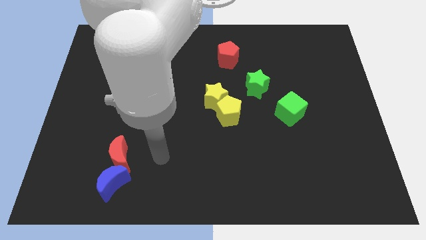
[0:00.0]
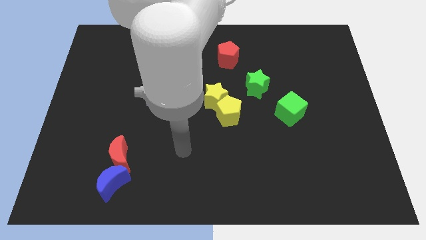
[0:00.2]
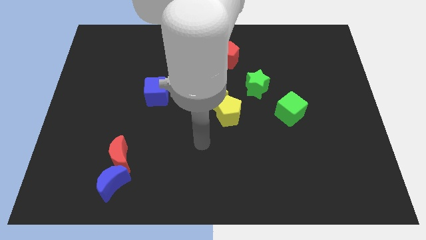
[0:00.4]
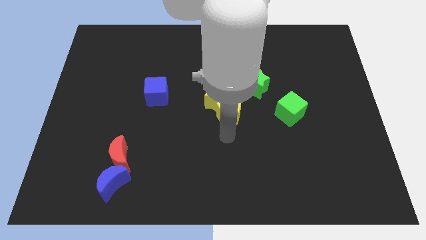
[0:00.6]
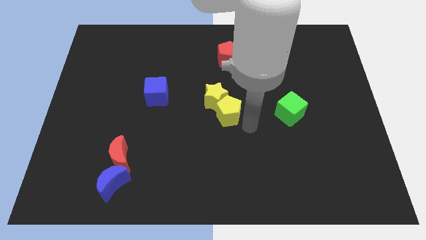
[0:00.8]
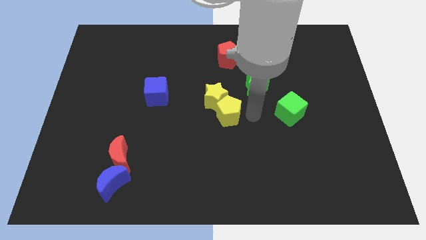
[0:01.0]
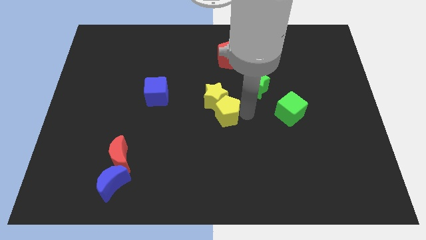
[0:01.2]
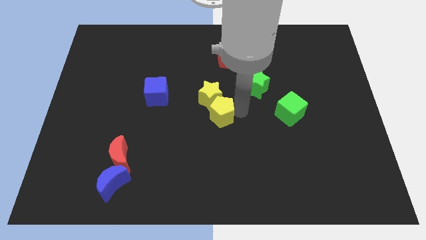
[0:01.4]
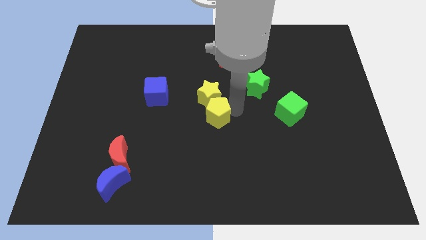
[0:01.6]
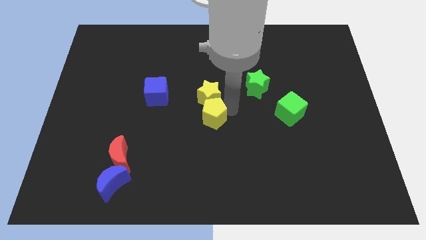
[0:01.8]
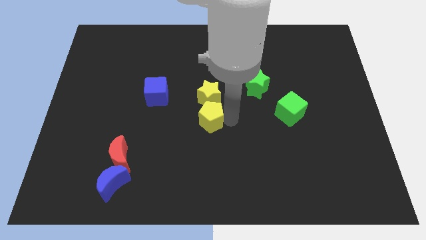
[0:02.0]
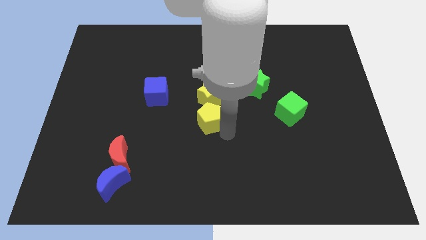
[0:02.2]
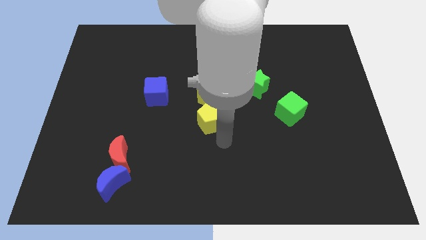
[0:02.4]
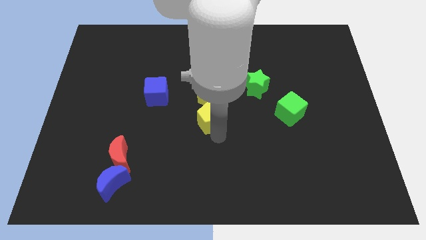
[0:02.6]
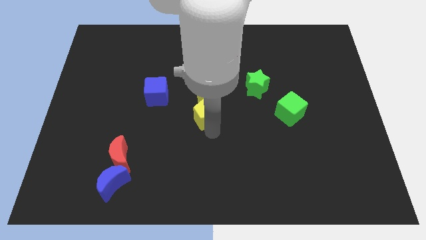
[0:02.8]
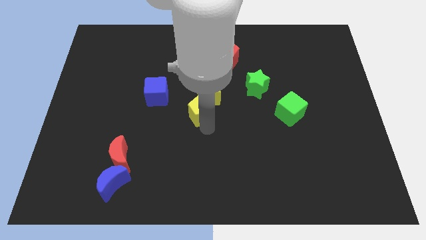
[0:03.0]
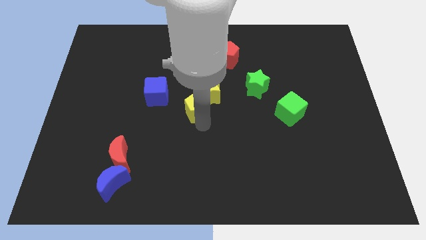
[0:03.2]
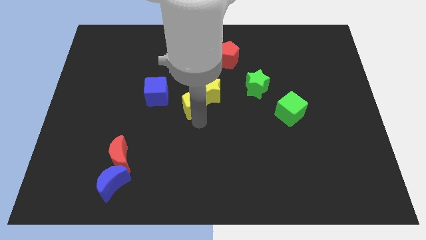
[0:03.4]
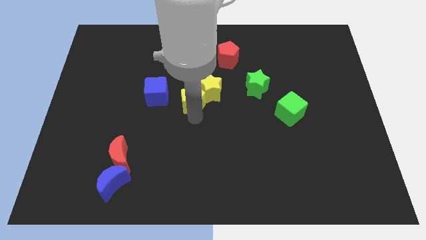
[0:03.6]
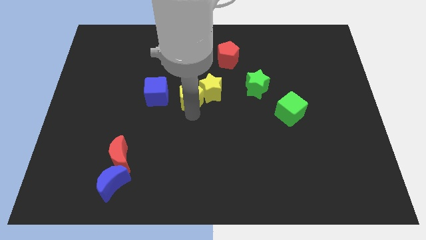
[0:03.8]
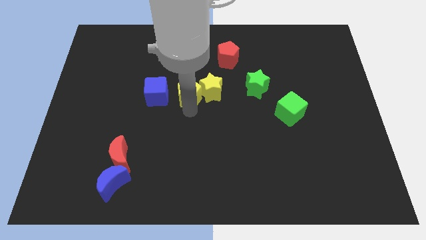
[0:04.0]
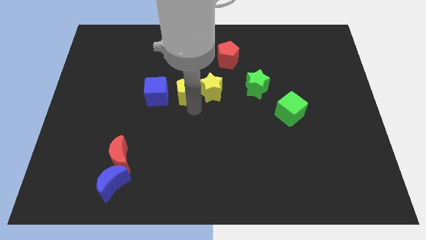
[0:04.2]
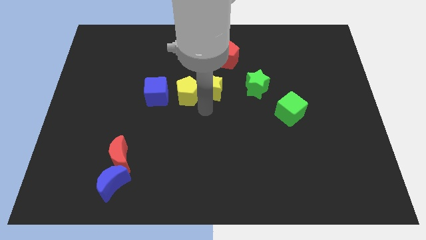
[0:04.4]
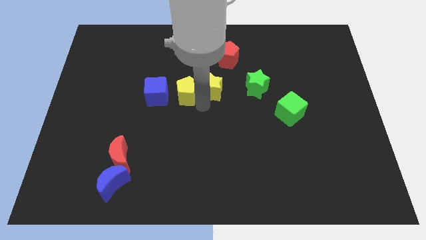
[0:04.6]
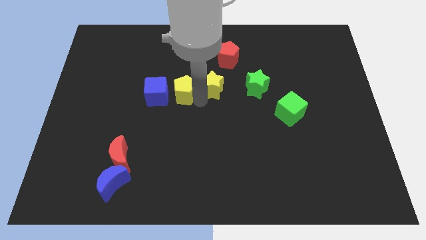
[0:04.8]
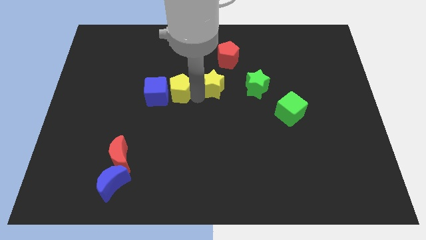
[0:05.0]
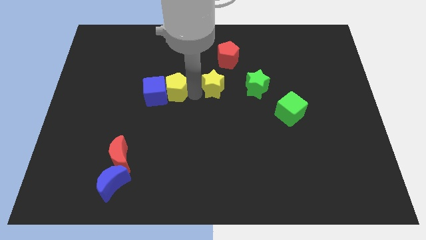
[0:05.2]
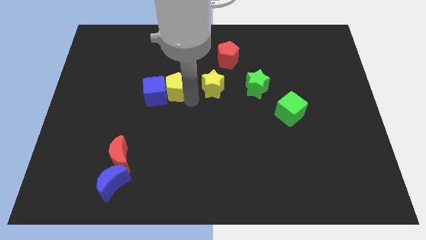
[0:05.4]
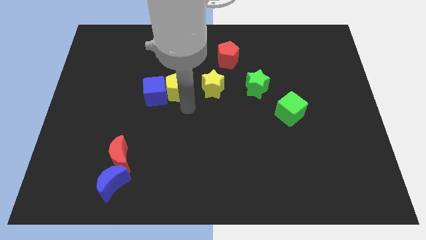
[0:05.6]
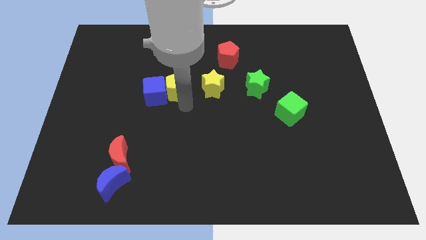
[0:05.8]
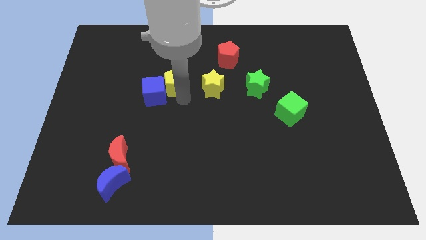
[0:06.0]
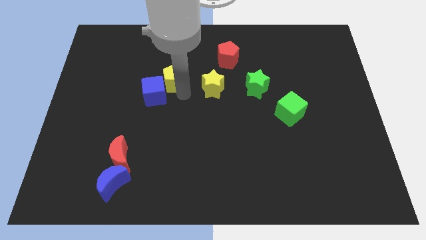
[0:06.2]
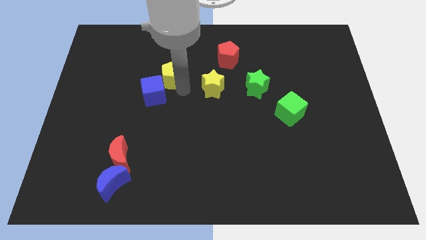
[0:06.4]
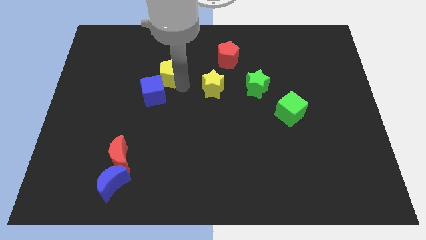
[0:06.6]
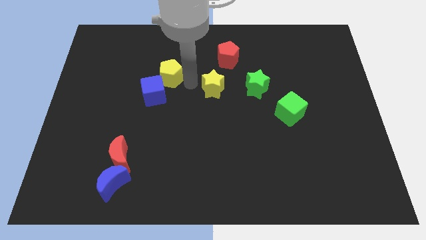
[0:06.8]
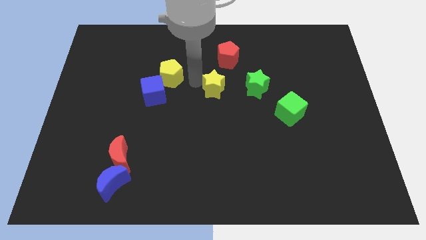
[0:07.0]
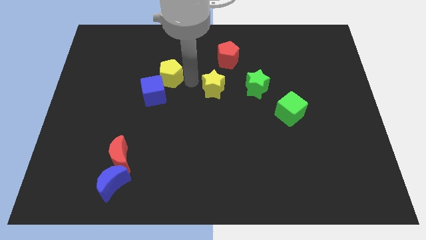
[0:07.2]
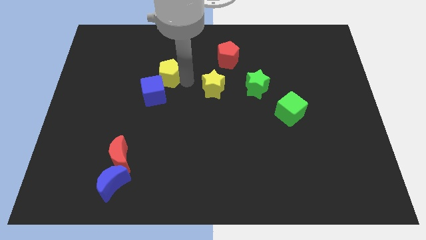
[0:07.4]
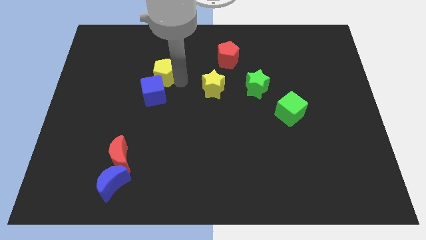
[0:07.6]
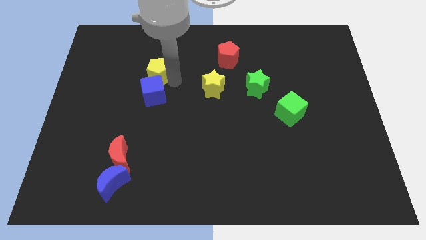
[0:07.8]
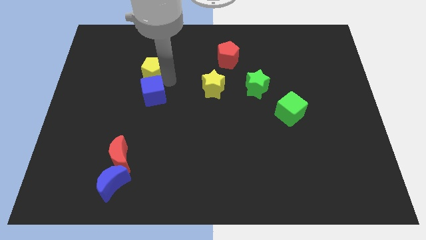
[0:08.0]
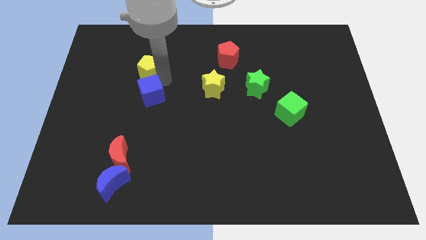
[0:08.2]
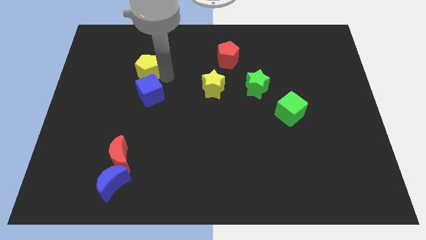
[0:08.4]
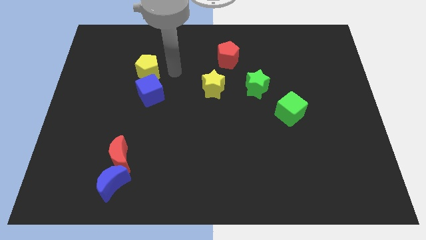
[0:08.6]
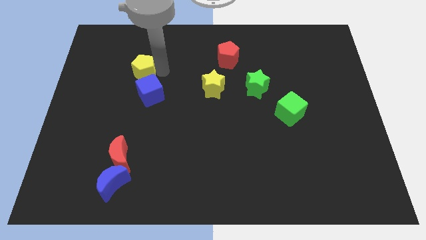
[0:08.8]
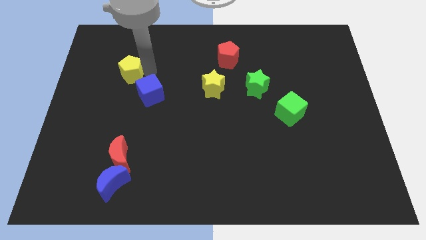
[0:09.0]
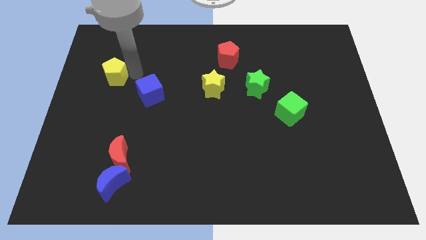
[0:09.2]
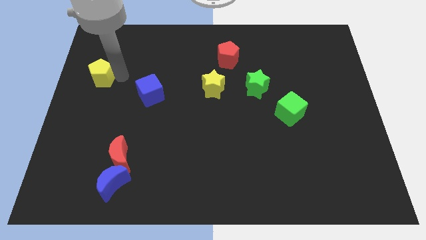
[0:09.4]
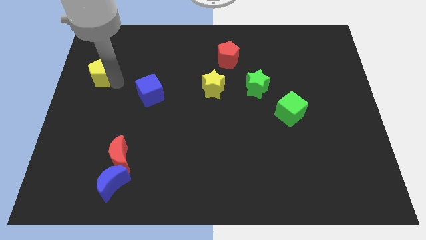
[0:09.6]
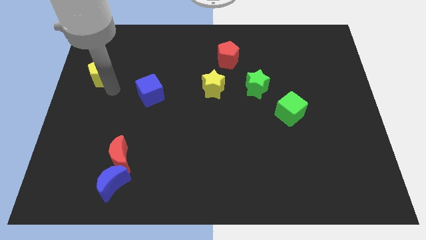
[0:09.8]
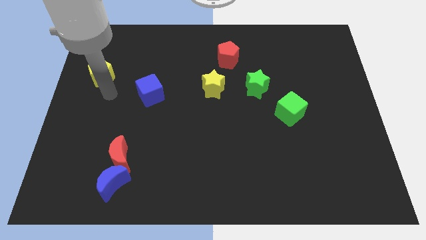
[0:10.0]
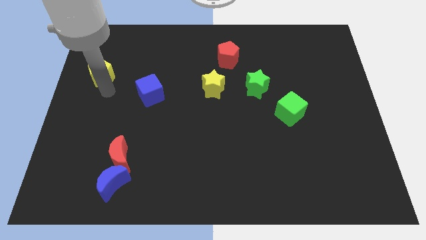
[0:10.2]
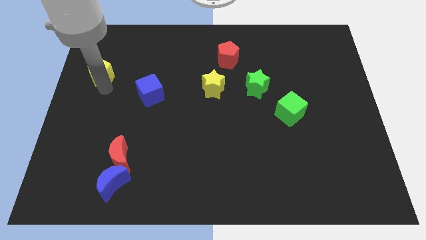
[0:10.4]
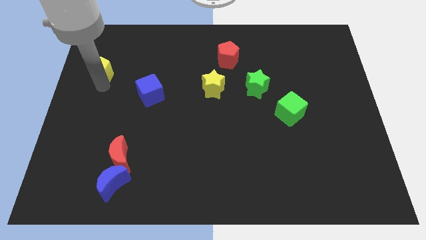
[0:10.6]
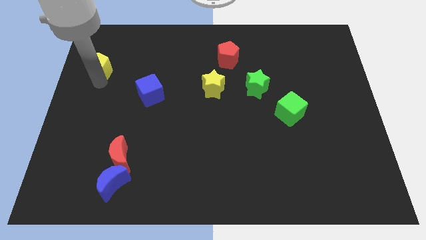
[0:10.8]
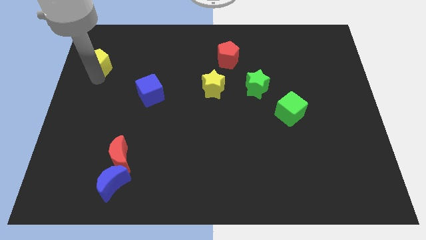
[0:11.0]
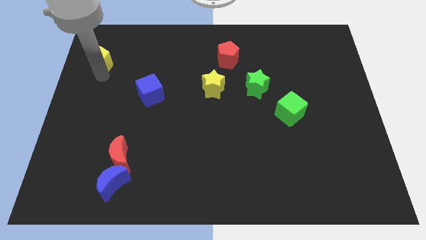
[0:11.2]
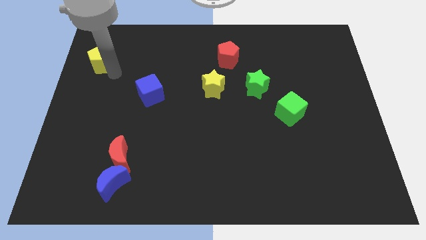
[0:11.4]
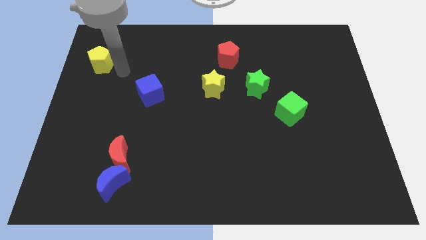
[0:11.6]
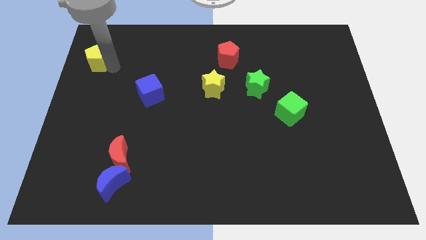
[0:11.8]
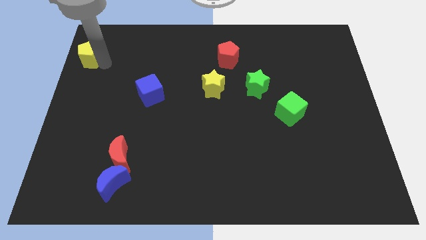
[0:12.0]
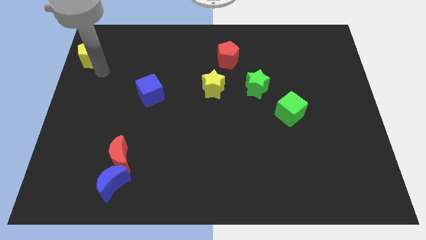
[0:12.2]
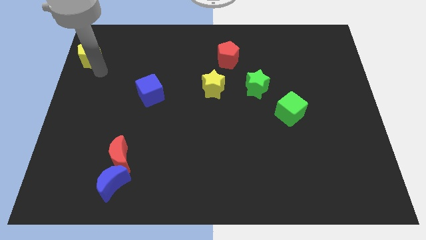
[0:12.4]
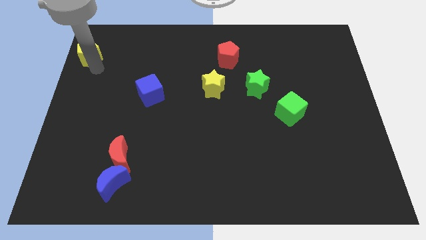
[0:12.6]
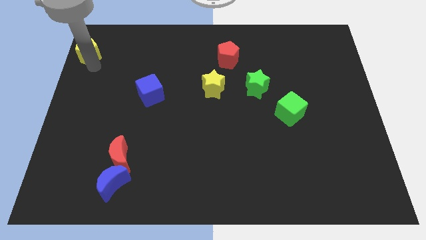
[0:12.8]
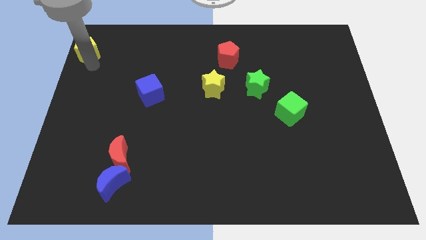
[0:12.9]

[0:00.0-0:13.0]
put the yellow pentagon to the top left of the board

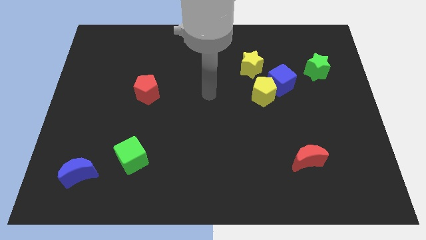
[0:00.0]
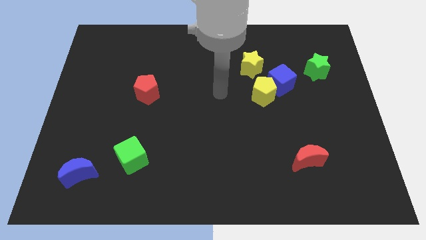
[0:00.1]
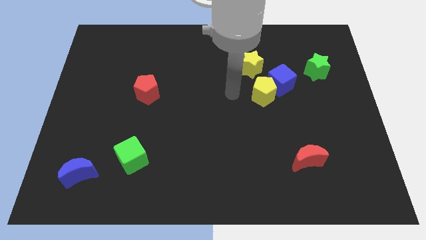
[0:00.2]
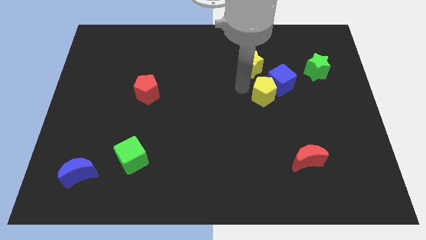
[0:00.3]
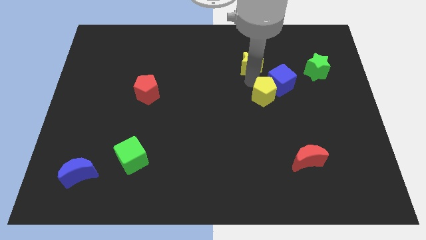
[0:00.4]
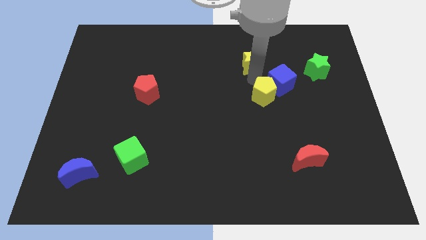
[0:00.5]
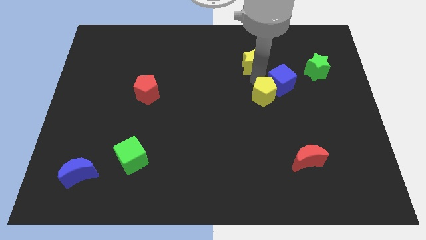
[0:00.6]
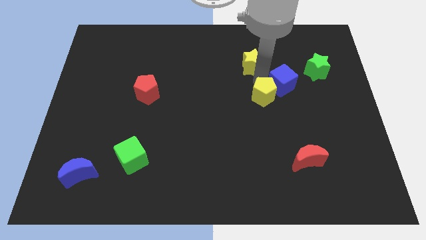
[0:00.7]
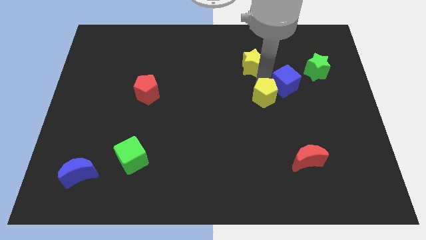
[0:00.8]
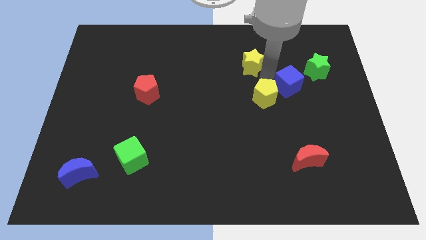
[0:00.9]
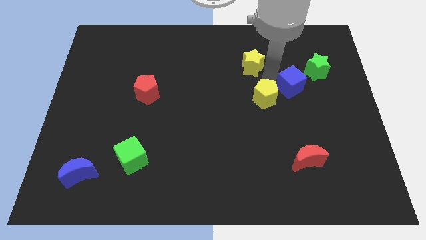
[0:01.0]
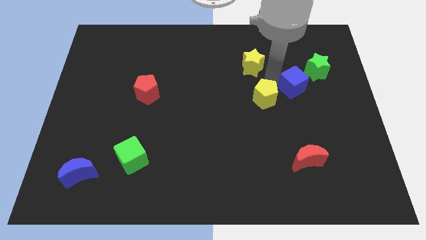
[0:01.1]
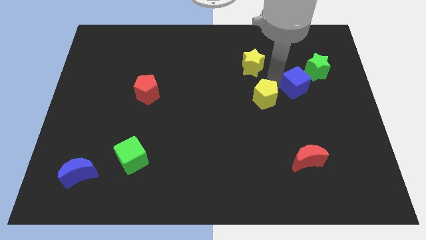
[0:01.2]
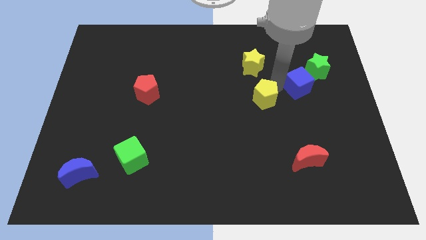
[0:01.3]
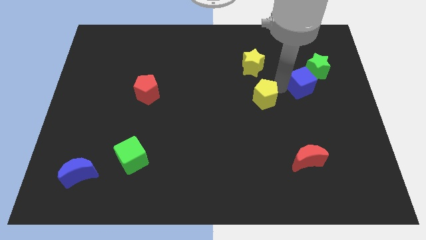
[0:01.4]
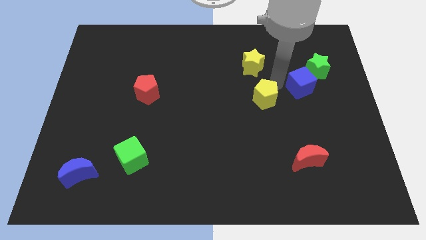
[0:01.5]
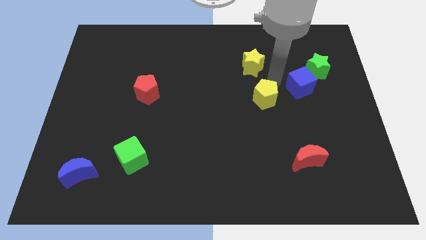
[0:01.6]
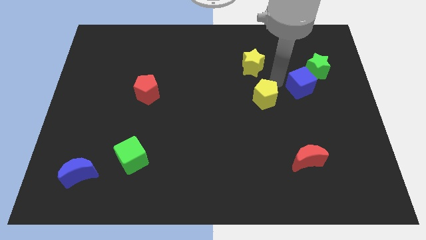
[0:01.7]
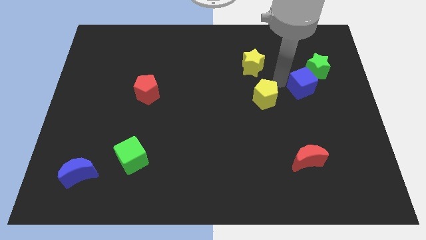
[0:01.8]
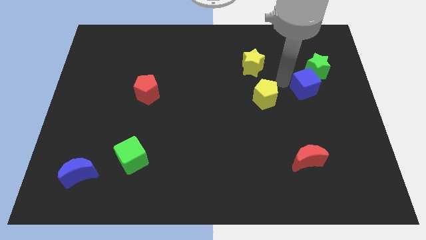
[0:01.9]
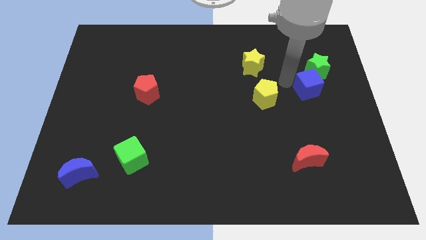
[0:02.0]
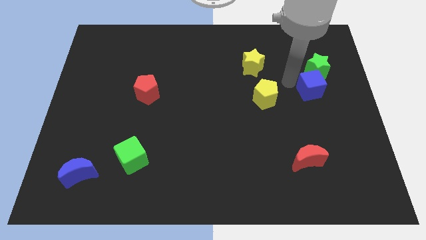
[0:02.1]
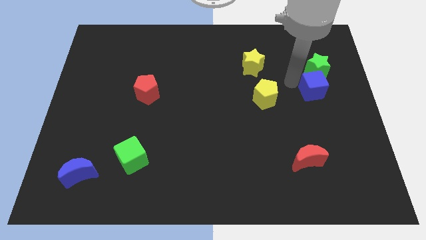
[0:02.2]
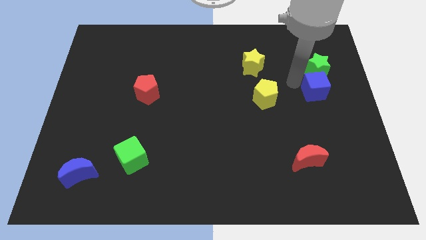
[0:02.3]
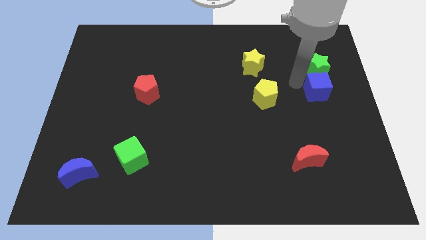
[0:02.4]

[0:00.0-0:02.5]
slide the blue cube to the center right
